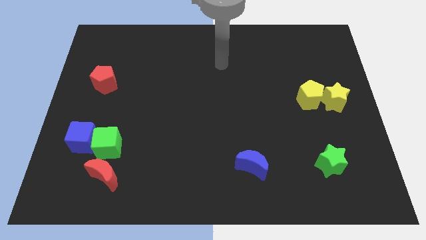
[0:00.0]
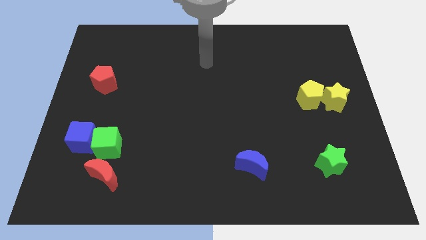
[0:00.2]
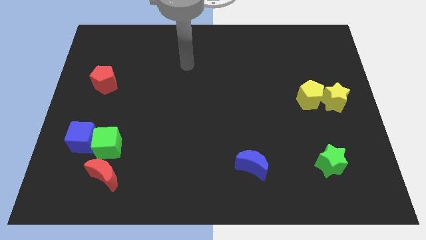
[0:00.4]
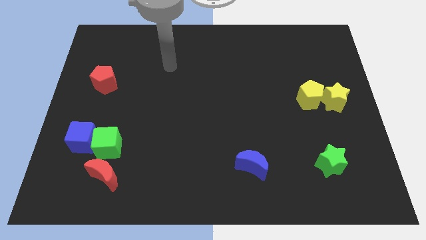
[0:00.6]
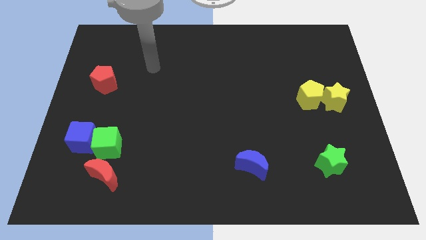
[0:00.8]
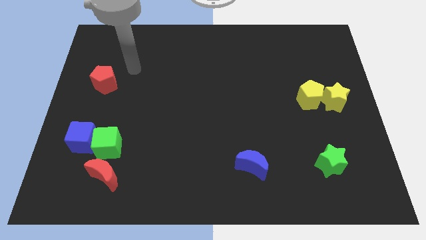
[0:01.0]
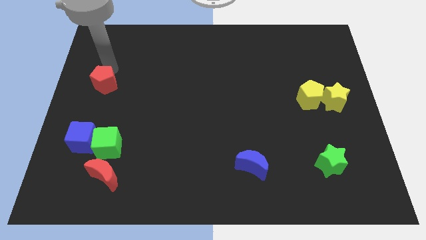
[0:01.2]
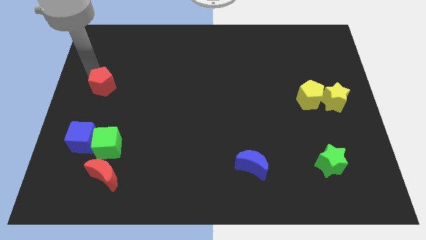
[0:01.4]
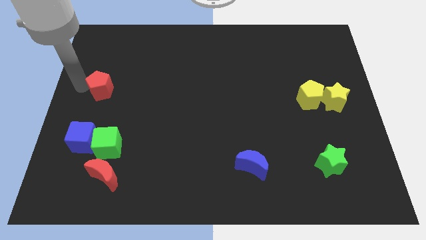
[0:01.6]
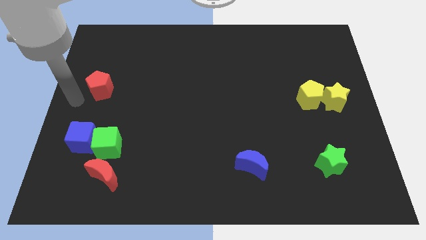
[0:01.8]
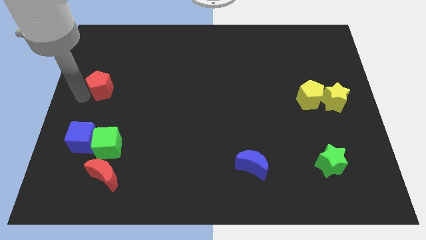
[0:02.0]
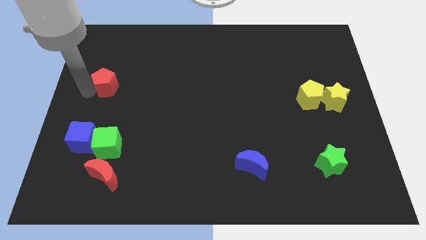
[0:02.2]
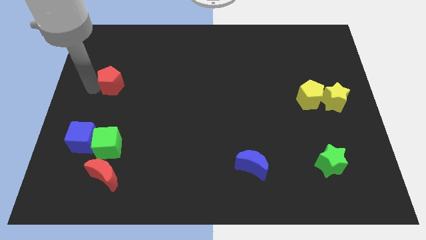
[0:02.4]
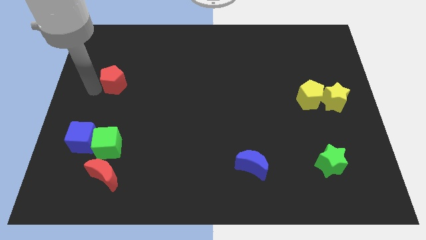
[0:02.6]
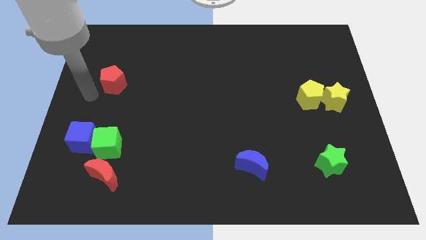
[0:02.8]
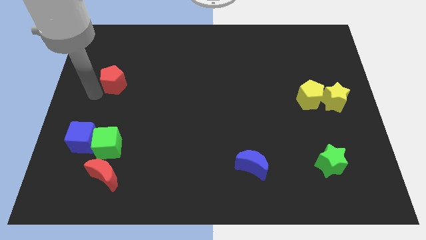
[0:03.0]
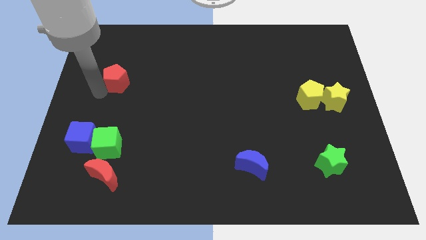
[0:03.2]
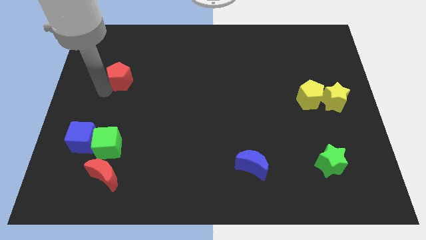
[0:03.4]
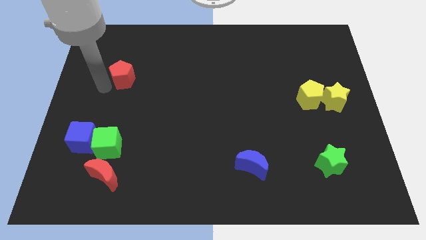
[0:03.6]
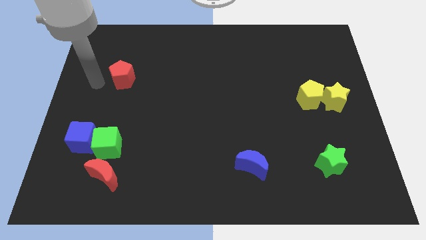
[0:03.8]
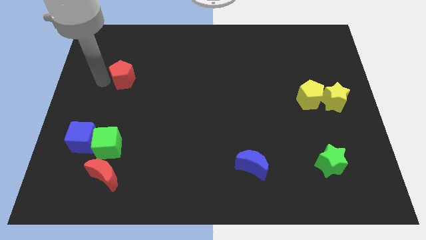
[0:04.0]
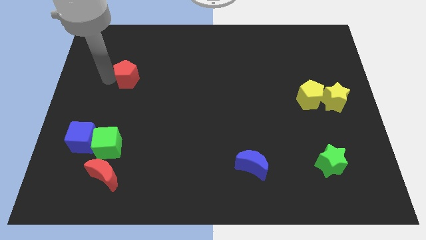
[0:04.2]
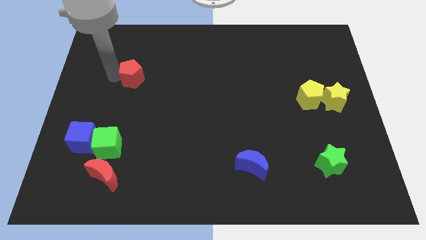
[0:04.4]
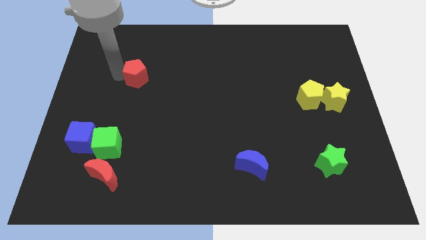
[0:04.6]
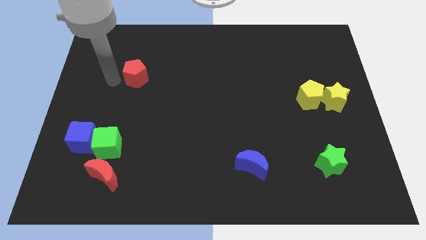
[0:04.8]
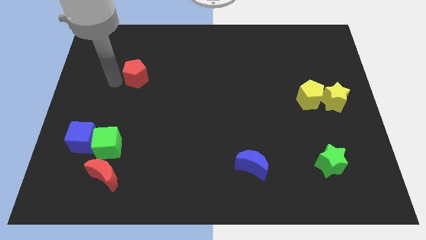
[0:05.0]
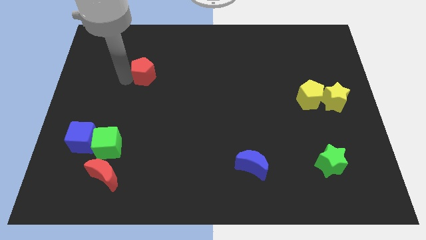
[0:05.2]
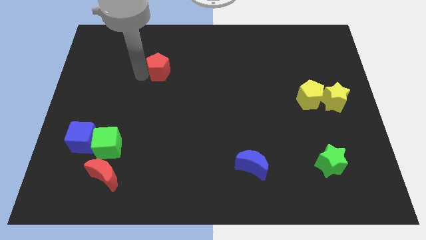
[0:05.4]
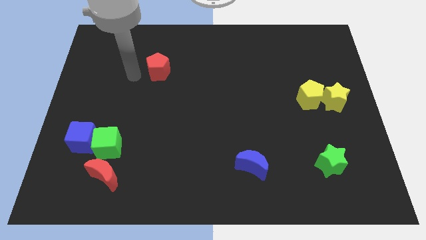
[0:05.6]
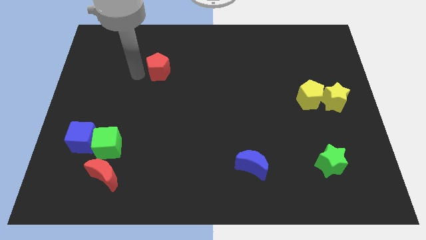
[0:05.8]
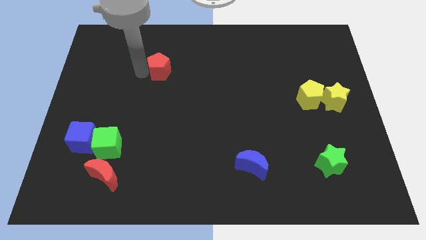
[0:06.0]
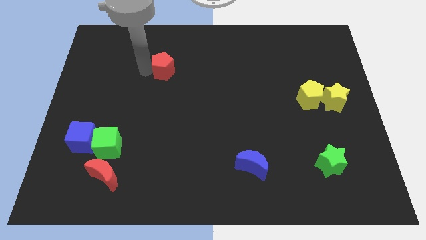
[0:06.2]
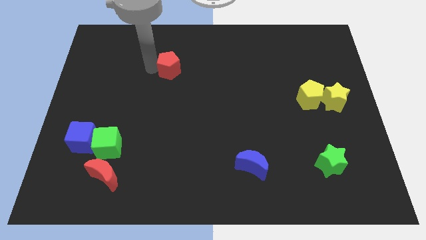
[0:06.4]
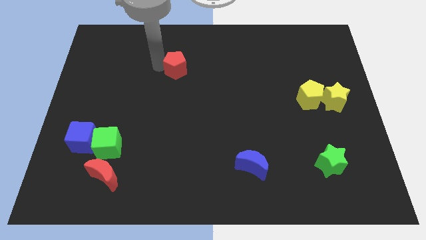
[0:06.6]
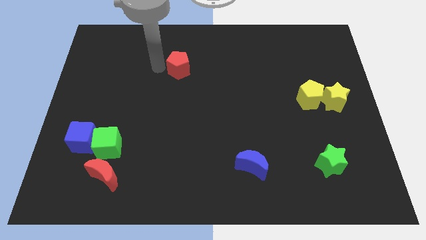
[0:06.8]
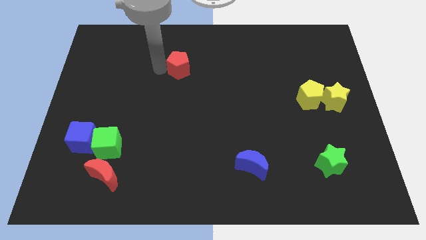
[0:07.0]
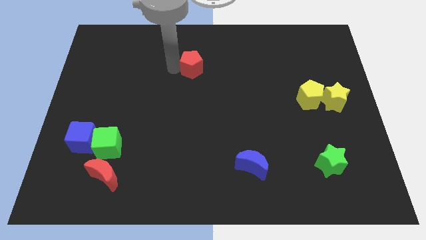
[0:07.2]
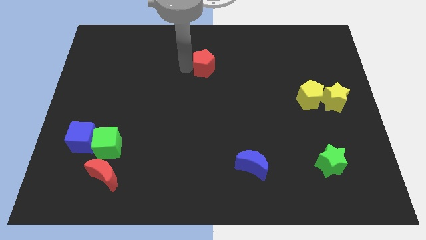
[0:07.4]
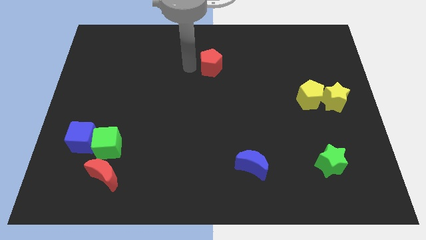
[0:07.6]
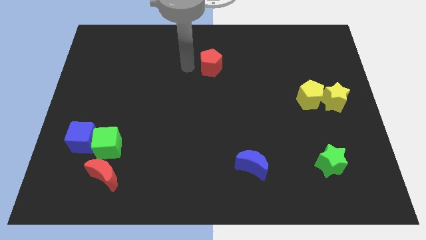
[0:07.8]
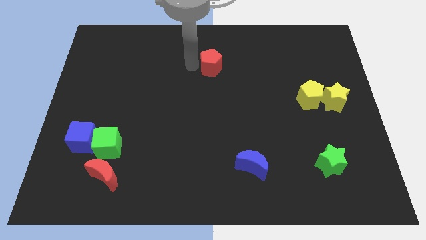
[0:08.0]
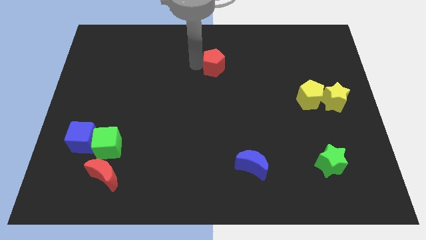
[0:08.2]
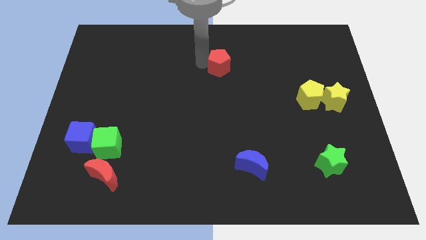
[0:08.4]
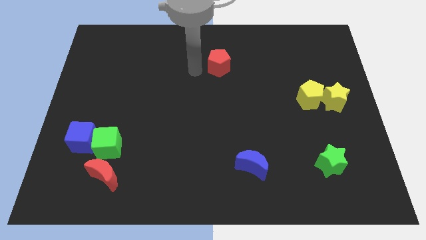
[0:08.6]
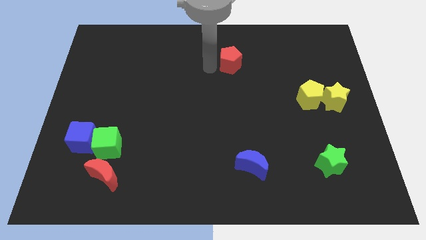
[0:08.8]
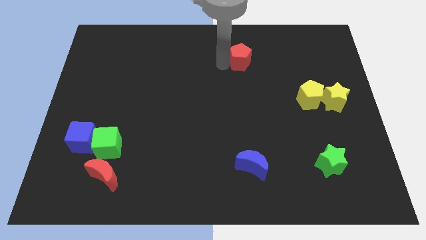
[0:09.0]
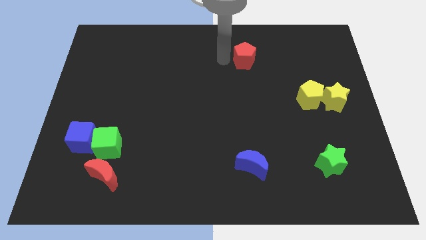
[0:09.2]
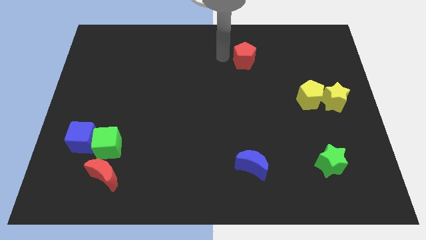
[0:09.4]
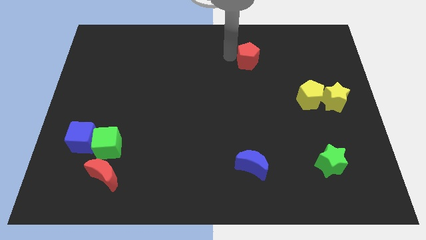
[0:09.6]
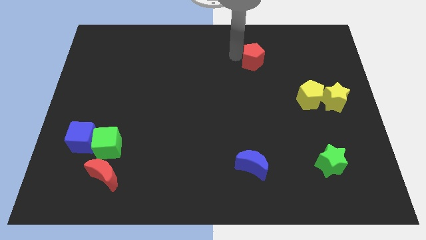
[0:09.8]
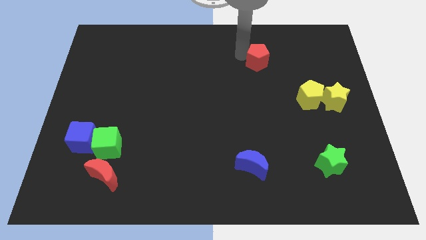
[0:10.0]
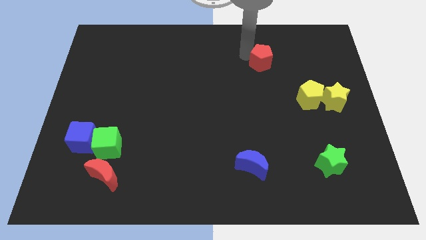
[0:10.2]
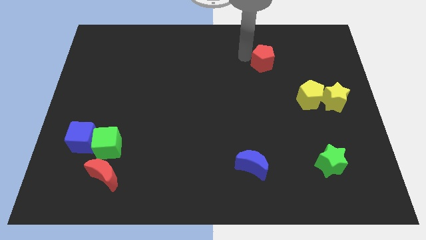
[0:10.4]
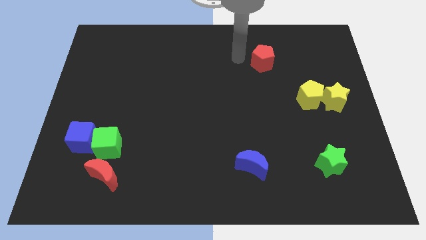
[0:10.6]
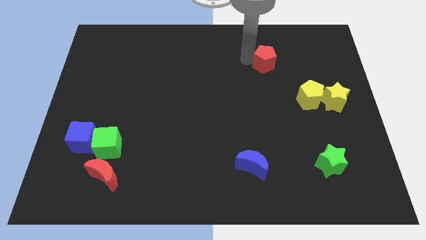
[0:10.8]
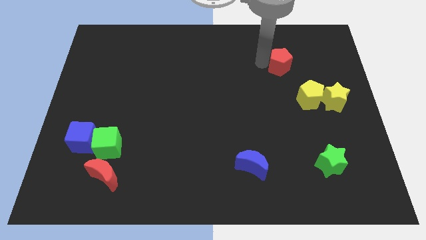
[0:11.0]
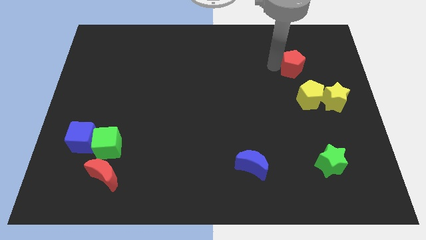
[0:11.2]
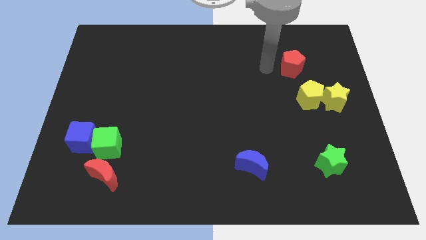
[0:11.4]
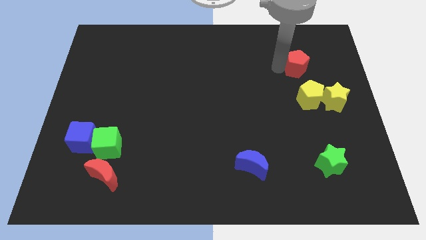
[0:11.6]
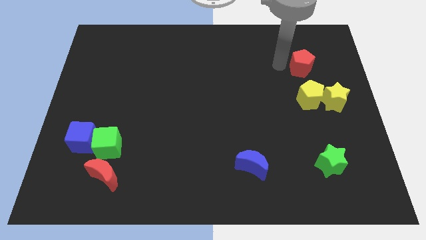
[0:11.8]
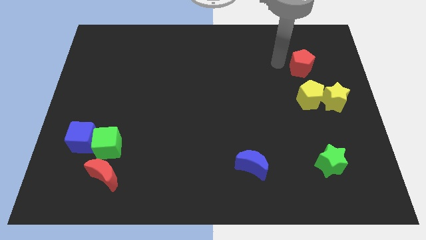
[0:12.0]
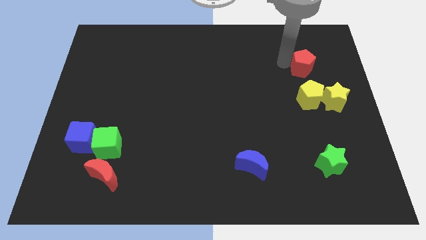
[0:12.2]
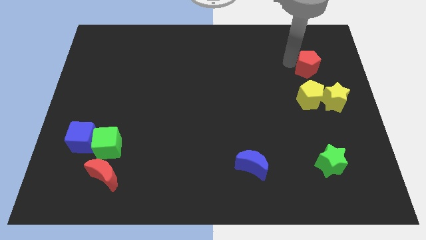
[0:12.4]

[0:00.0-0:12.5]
move the red pentagon to the top side of the yellow star

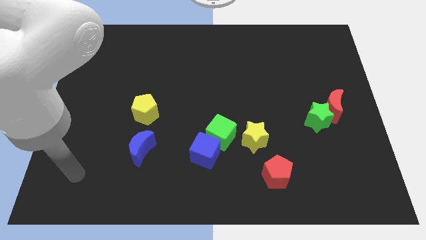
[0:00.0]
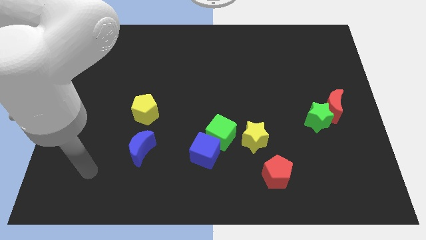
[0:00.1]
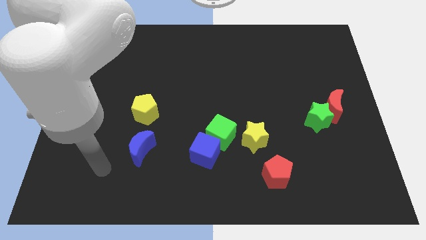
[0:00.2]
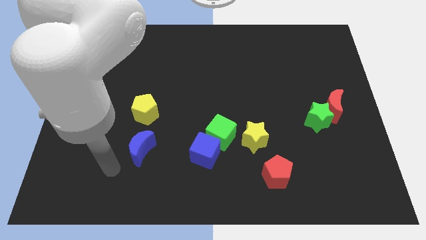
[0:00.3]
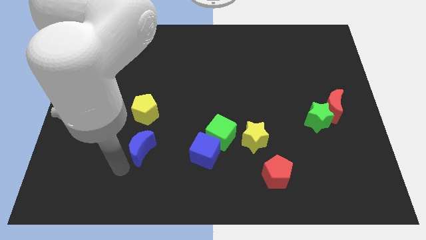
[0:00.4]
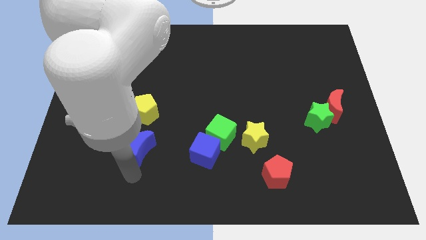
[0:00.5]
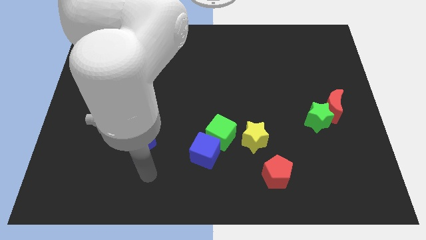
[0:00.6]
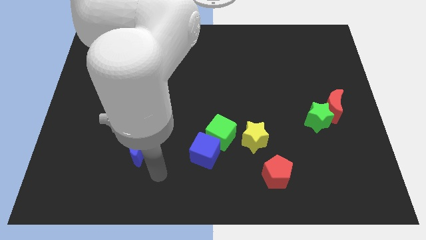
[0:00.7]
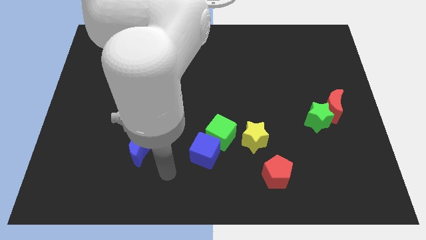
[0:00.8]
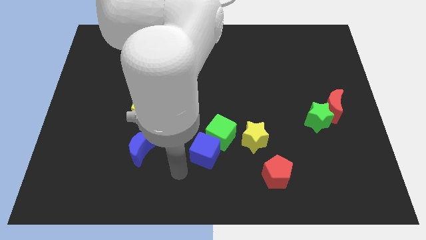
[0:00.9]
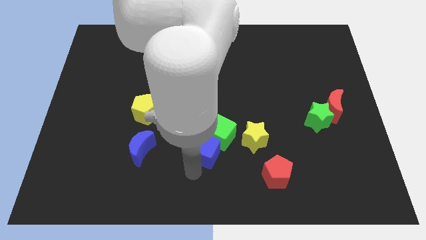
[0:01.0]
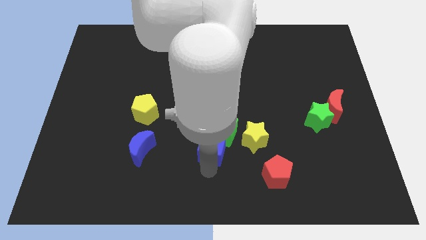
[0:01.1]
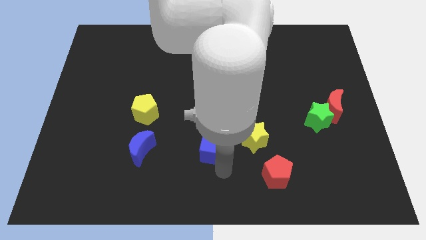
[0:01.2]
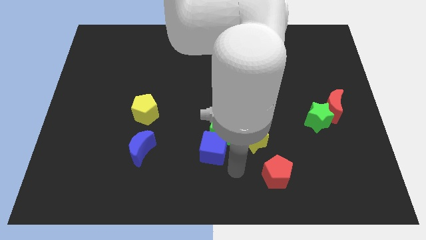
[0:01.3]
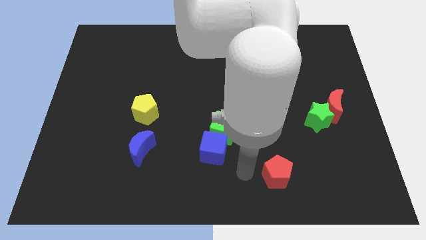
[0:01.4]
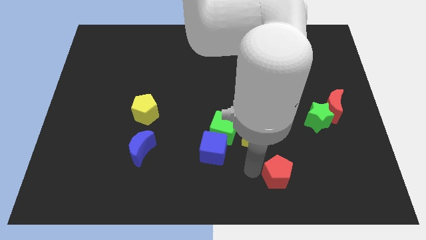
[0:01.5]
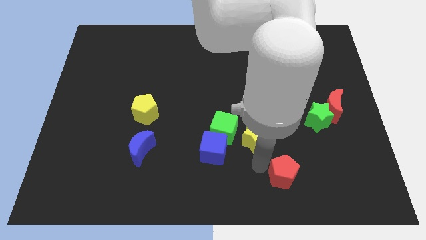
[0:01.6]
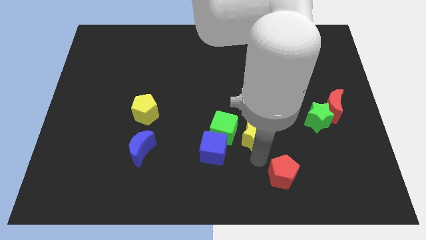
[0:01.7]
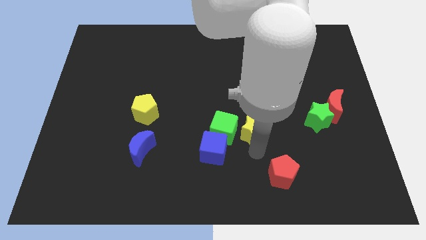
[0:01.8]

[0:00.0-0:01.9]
move the yellow star to the top right of the green cube

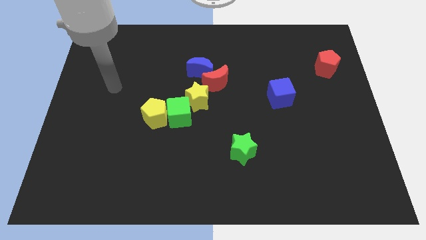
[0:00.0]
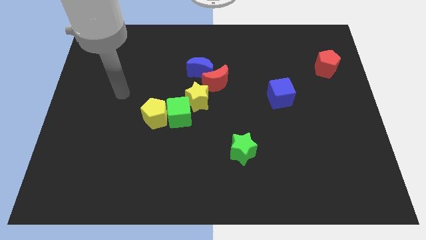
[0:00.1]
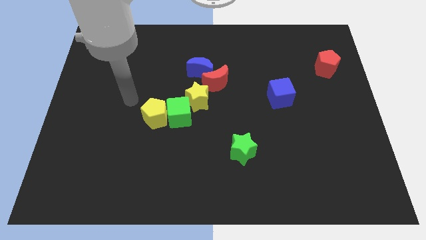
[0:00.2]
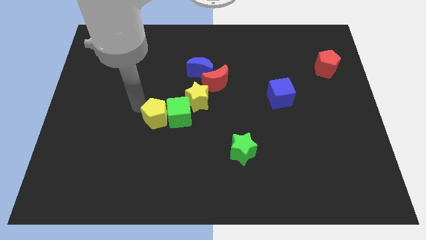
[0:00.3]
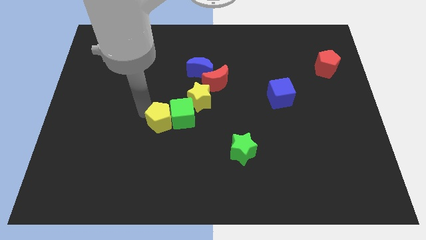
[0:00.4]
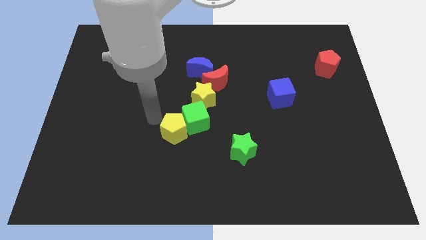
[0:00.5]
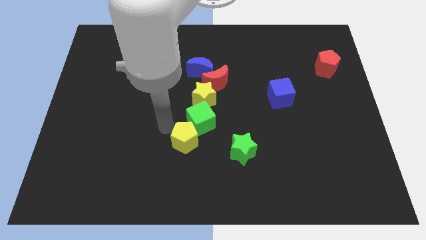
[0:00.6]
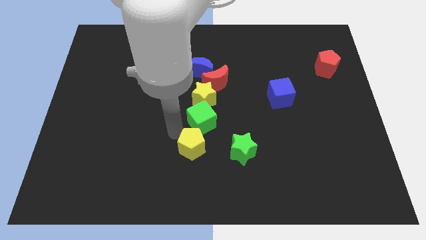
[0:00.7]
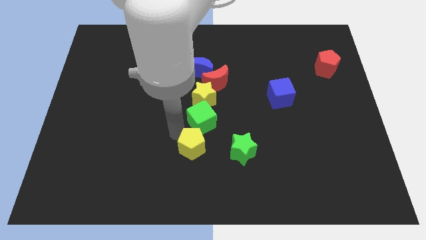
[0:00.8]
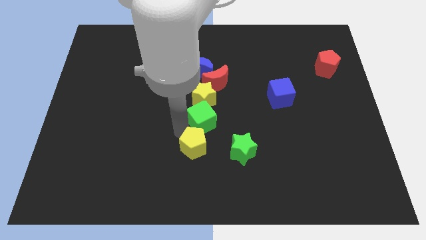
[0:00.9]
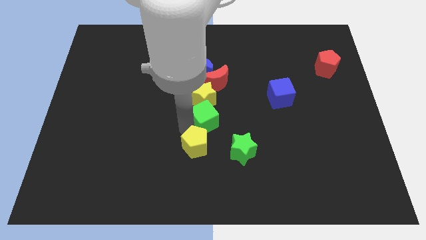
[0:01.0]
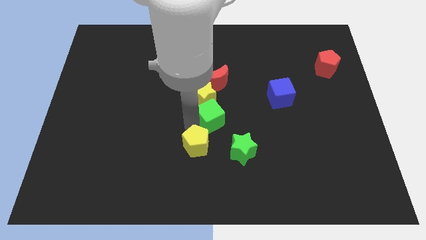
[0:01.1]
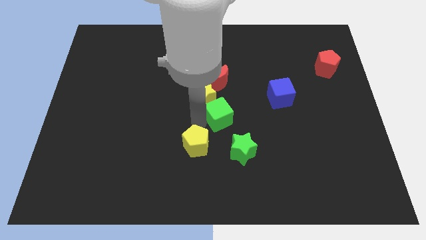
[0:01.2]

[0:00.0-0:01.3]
move the green cube to the top of the green star
